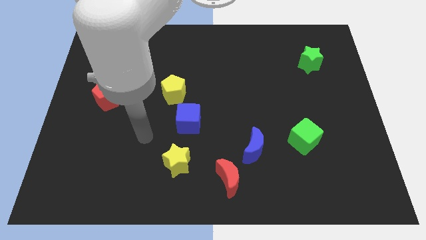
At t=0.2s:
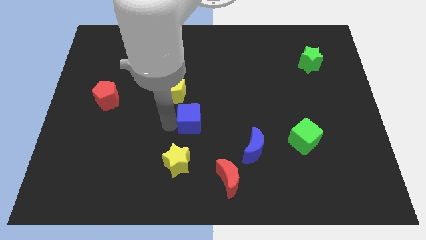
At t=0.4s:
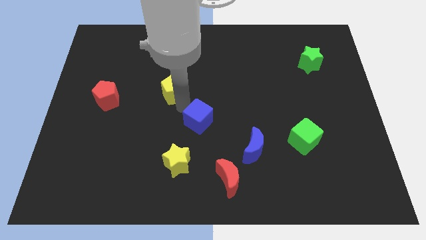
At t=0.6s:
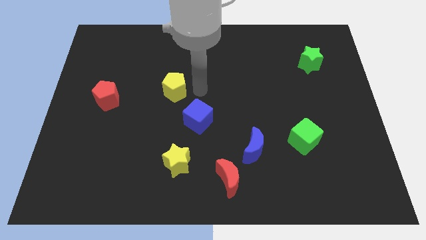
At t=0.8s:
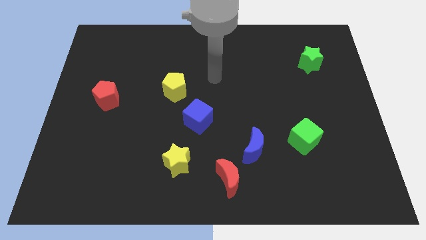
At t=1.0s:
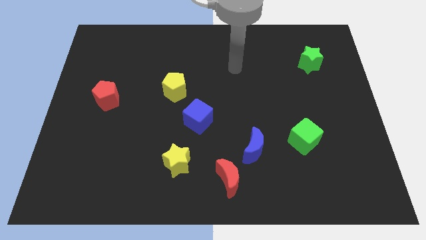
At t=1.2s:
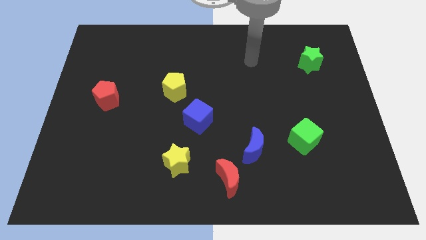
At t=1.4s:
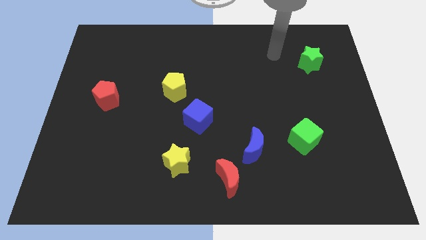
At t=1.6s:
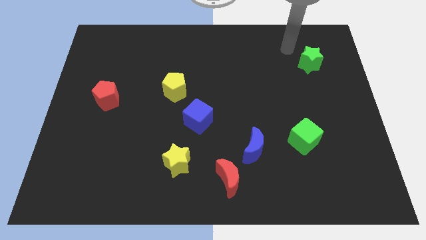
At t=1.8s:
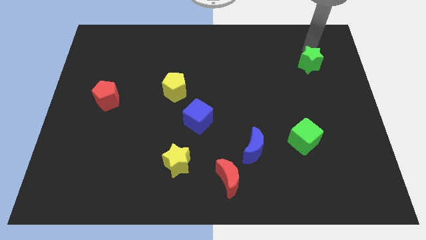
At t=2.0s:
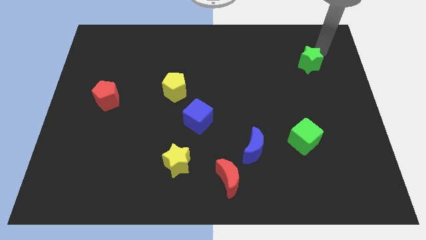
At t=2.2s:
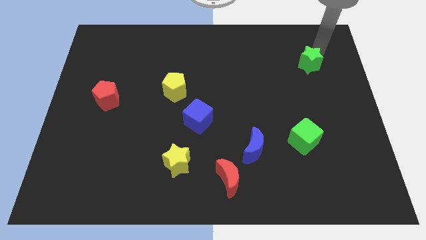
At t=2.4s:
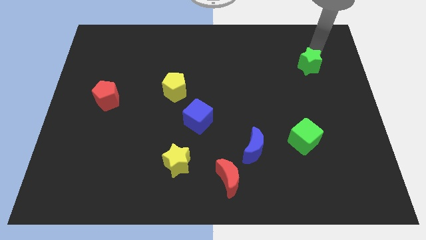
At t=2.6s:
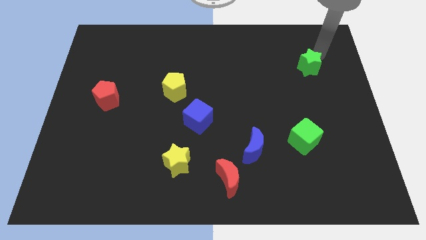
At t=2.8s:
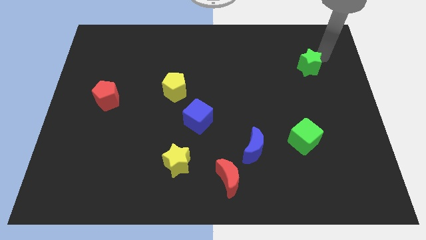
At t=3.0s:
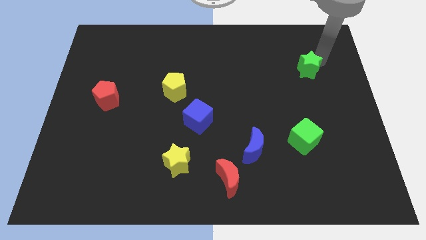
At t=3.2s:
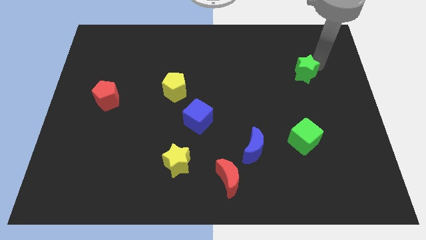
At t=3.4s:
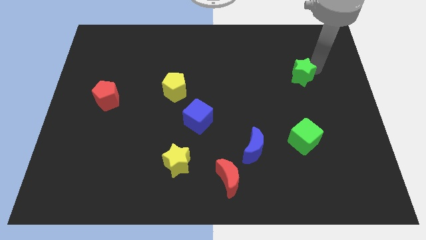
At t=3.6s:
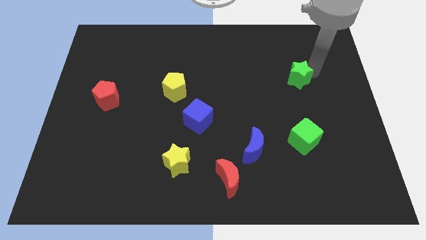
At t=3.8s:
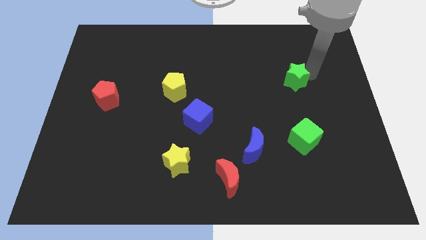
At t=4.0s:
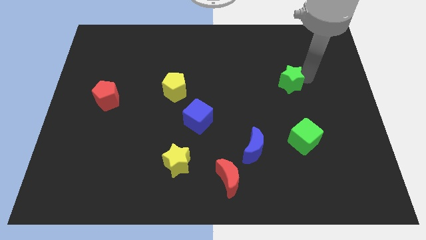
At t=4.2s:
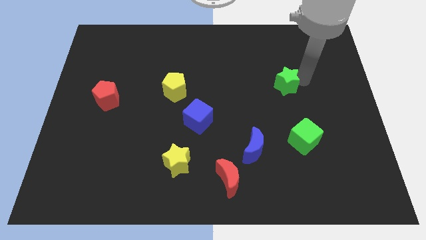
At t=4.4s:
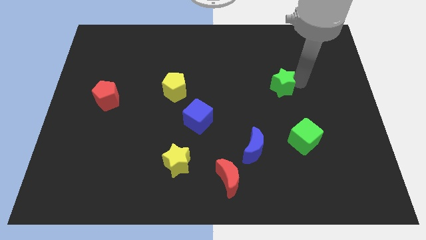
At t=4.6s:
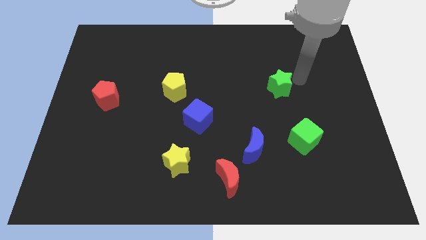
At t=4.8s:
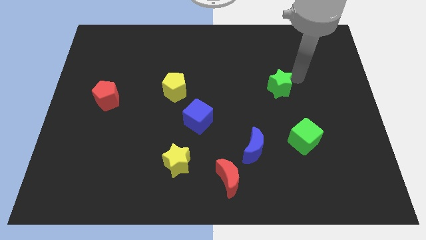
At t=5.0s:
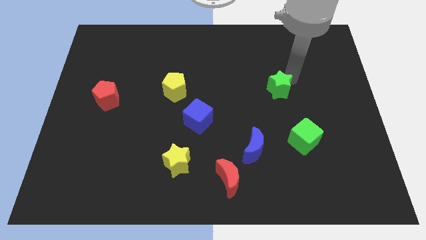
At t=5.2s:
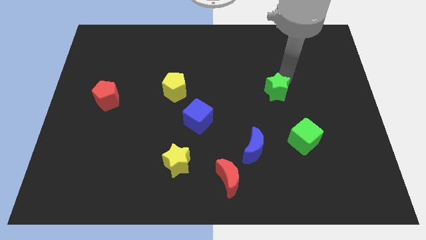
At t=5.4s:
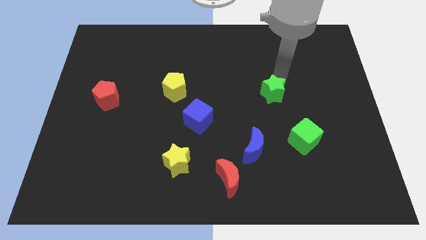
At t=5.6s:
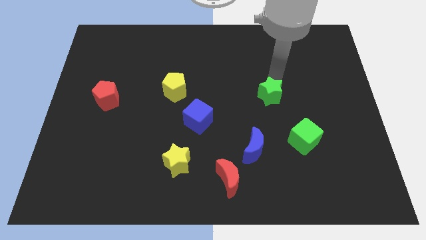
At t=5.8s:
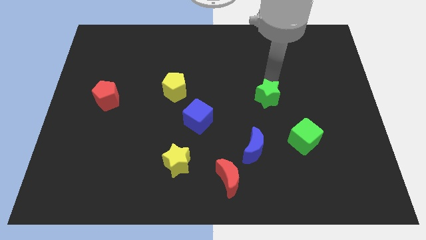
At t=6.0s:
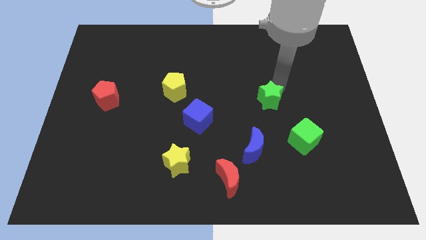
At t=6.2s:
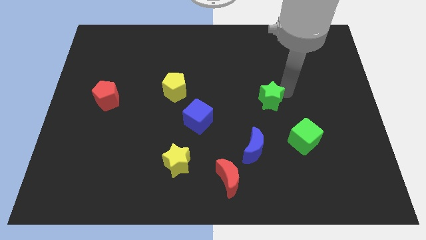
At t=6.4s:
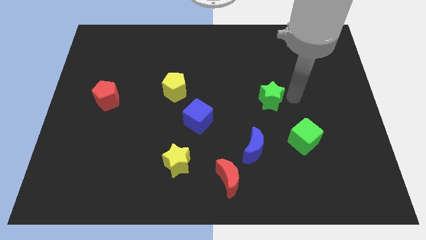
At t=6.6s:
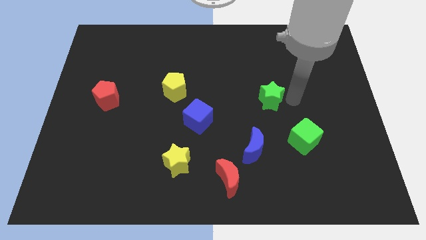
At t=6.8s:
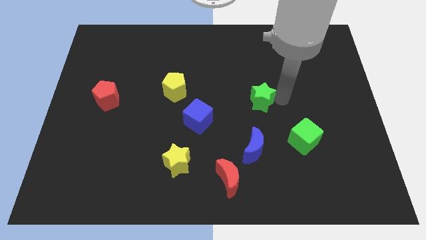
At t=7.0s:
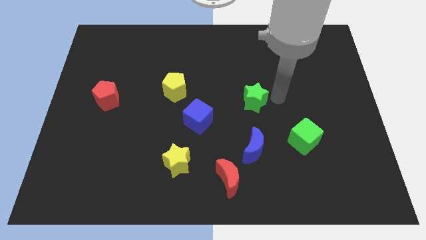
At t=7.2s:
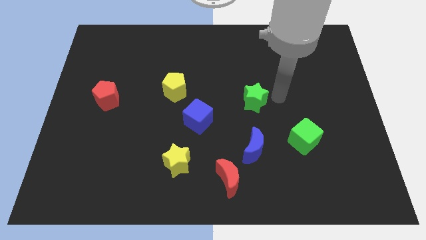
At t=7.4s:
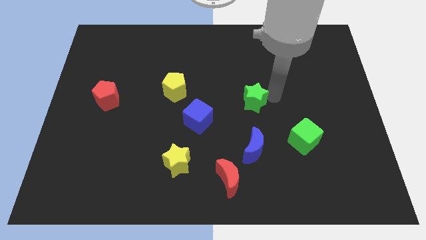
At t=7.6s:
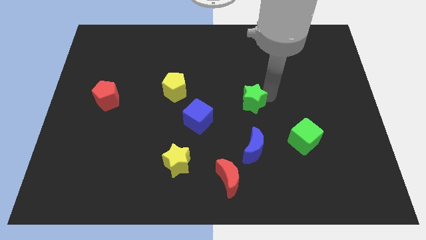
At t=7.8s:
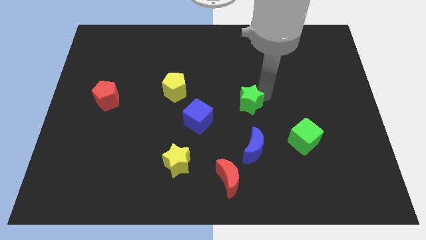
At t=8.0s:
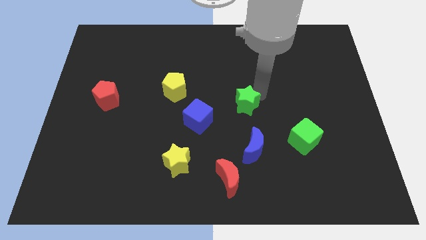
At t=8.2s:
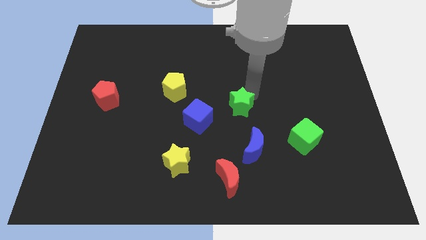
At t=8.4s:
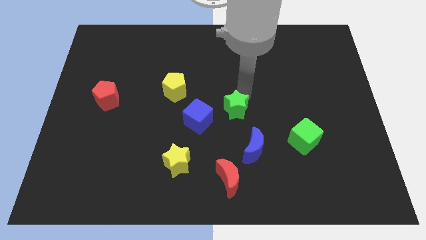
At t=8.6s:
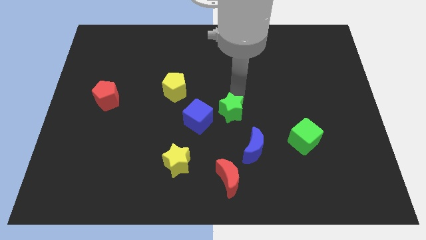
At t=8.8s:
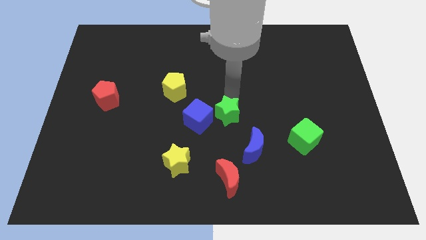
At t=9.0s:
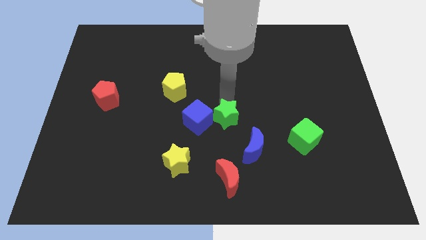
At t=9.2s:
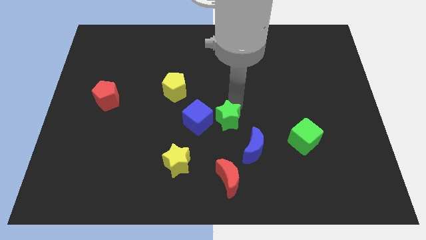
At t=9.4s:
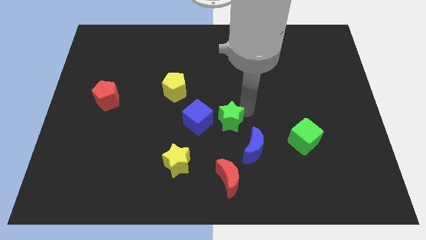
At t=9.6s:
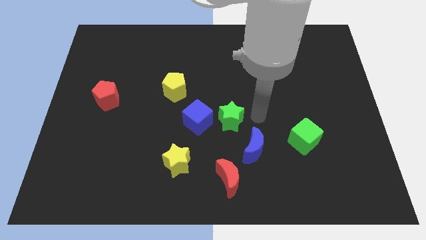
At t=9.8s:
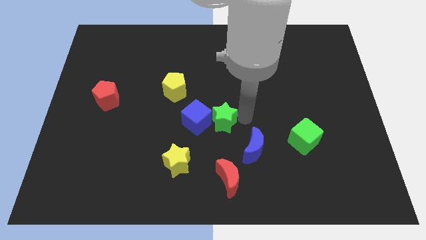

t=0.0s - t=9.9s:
move the green star towards the blue cube

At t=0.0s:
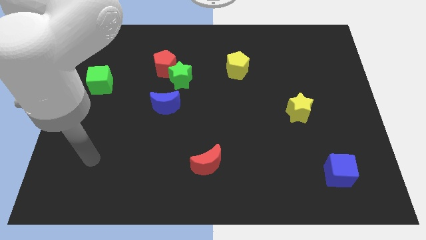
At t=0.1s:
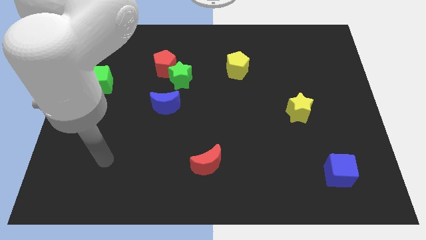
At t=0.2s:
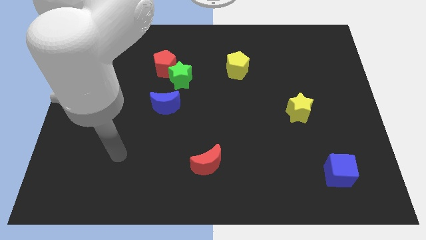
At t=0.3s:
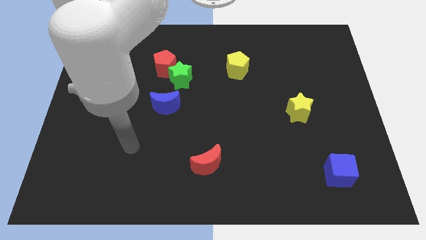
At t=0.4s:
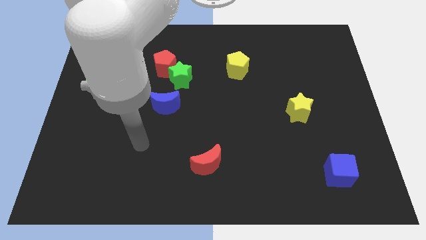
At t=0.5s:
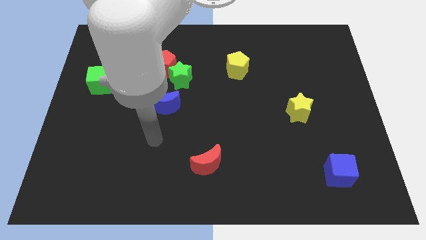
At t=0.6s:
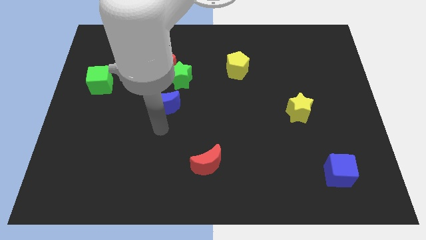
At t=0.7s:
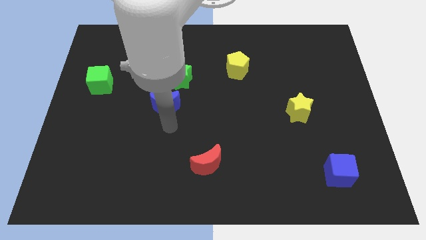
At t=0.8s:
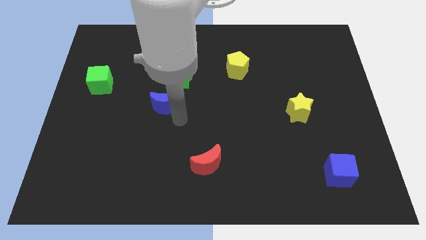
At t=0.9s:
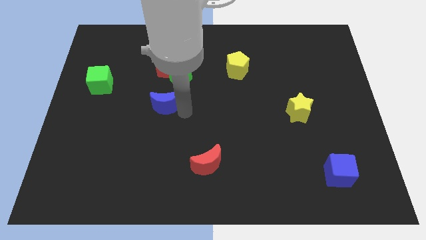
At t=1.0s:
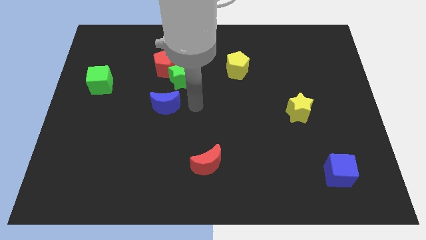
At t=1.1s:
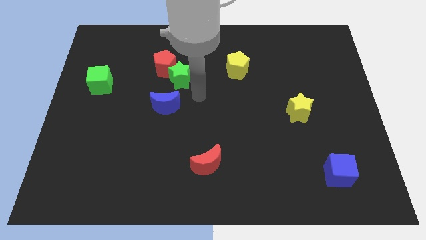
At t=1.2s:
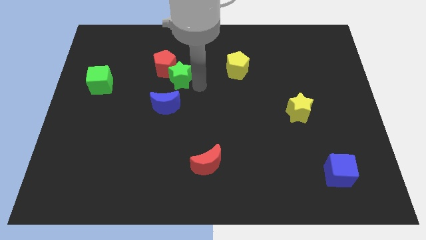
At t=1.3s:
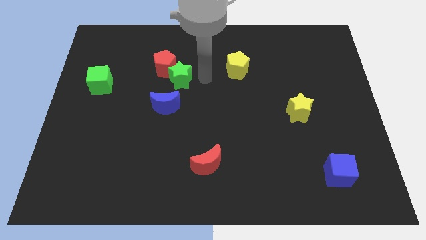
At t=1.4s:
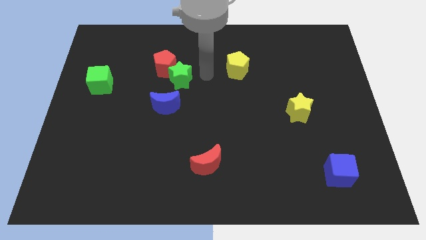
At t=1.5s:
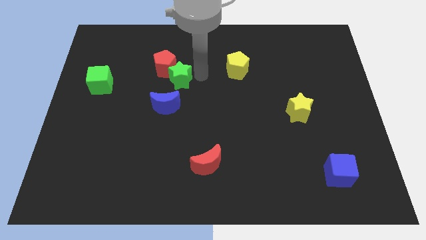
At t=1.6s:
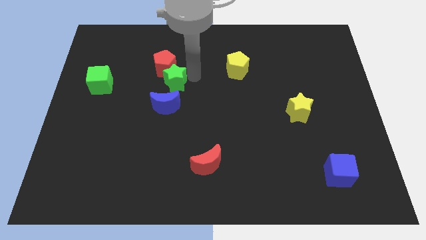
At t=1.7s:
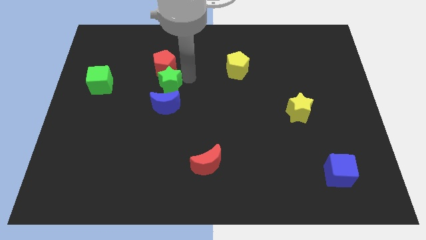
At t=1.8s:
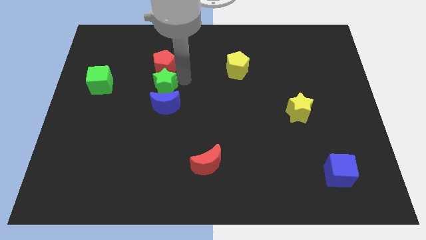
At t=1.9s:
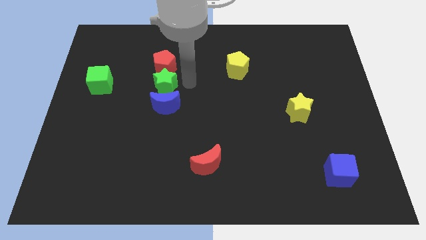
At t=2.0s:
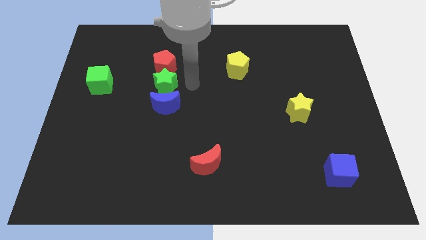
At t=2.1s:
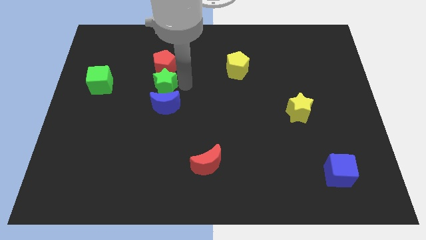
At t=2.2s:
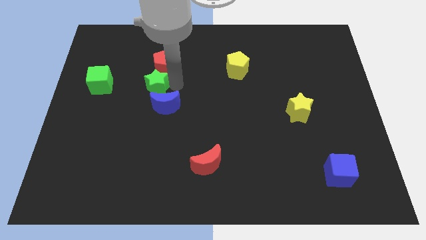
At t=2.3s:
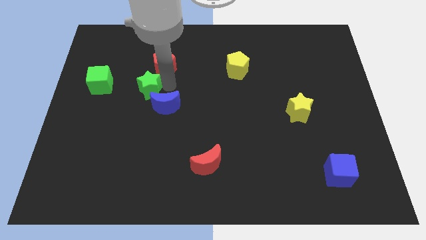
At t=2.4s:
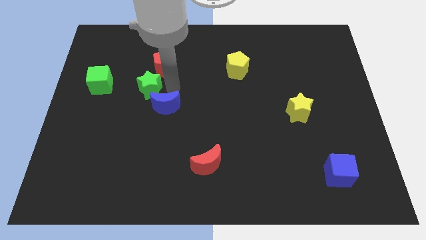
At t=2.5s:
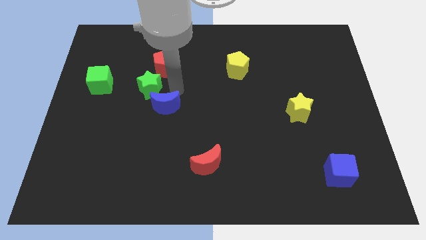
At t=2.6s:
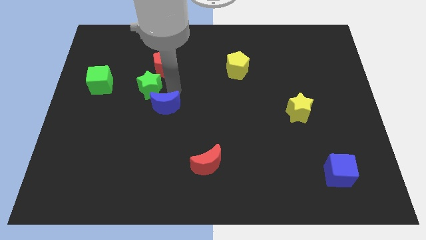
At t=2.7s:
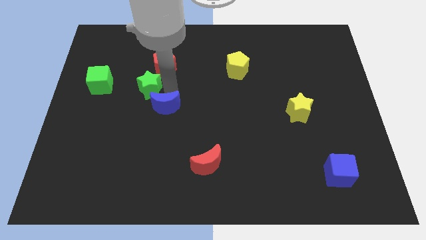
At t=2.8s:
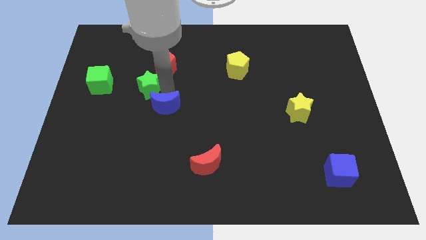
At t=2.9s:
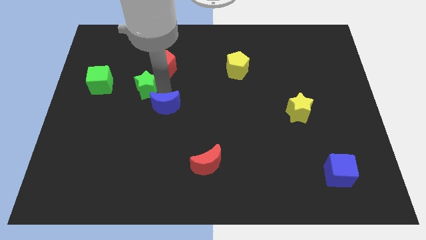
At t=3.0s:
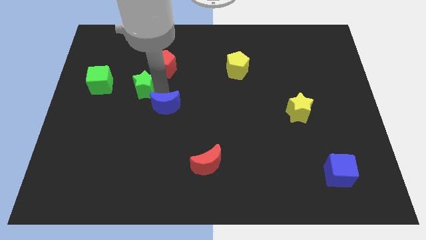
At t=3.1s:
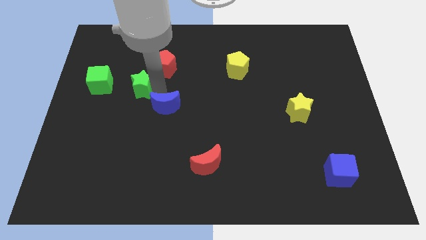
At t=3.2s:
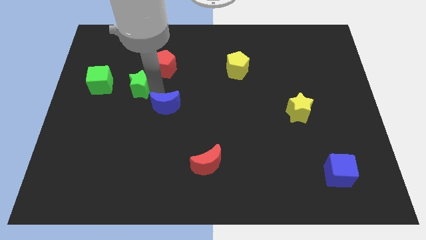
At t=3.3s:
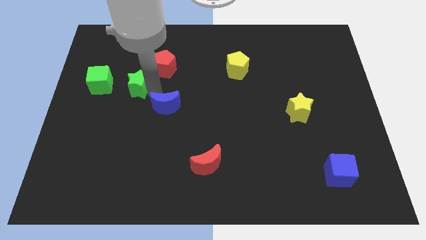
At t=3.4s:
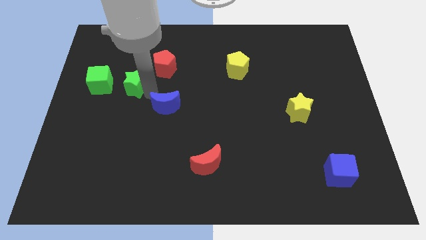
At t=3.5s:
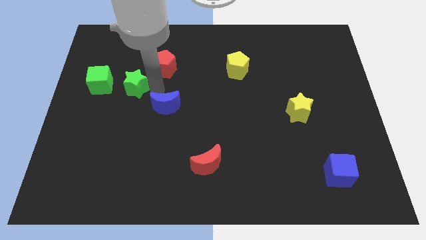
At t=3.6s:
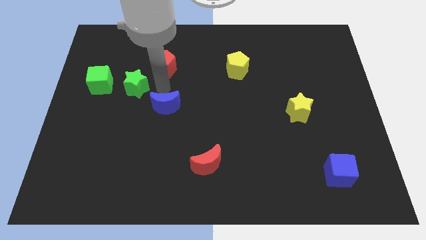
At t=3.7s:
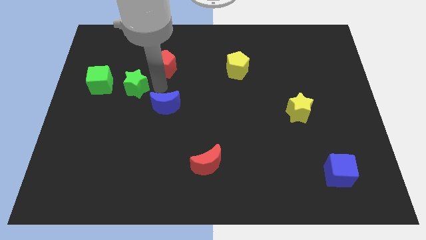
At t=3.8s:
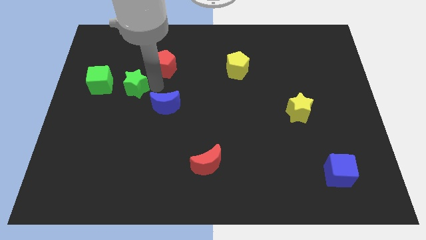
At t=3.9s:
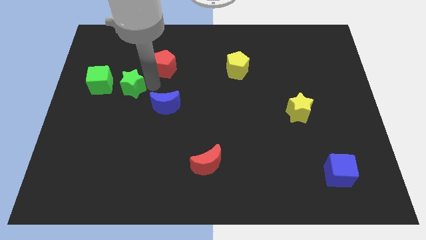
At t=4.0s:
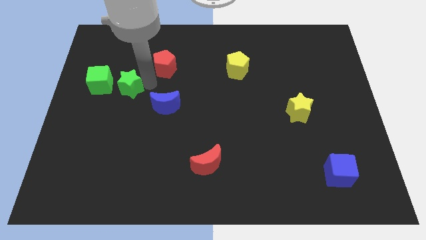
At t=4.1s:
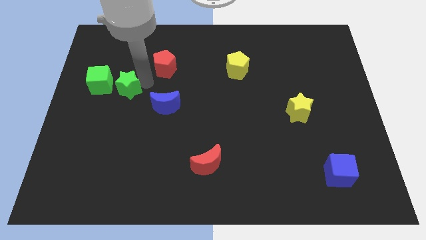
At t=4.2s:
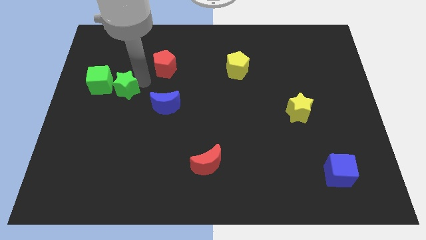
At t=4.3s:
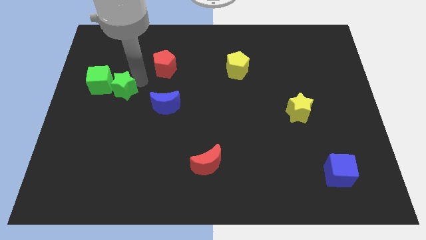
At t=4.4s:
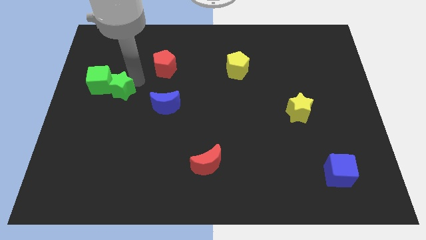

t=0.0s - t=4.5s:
put the green star close to the green cube
